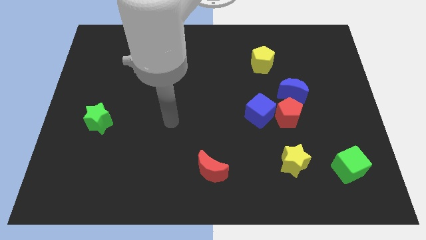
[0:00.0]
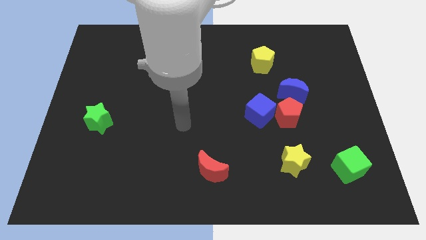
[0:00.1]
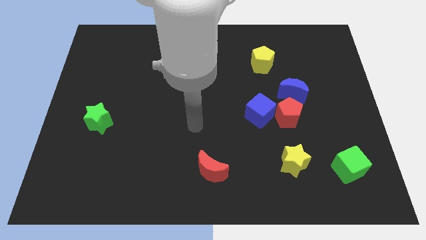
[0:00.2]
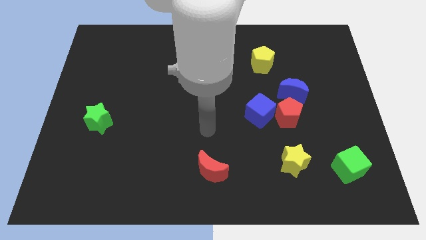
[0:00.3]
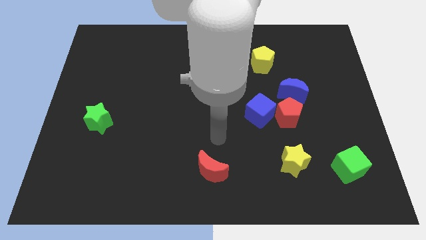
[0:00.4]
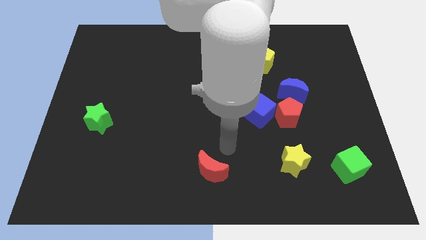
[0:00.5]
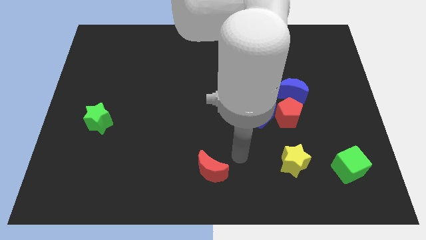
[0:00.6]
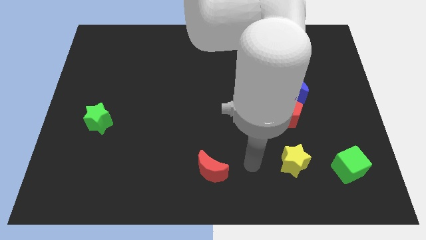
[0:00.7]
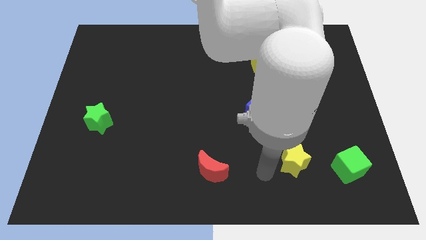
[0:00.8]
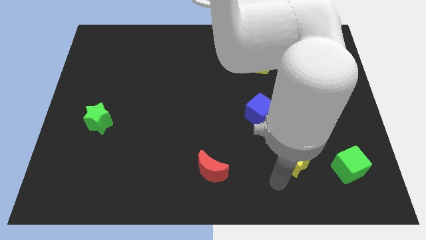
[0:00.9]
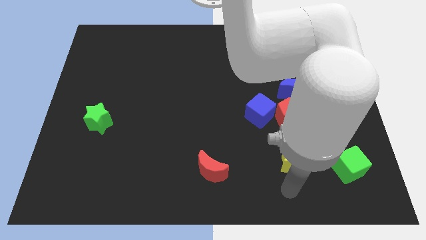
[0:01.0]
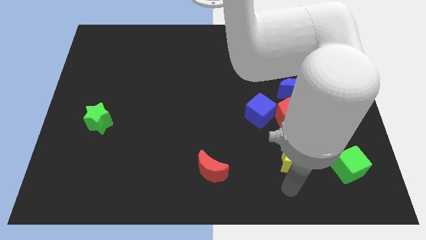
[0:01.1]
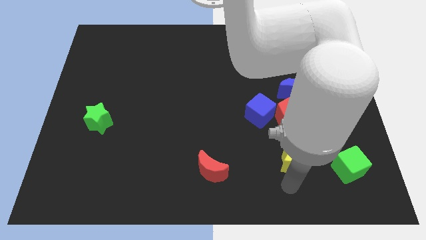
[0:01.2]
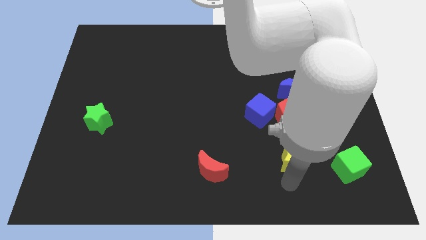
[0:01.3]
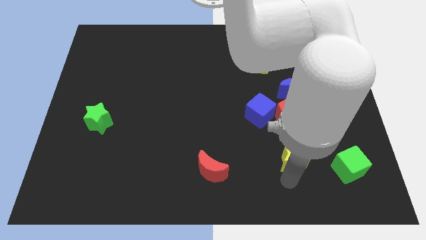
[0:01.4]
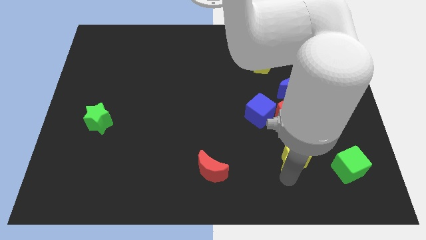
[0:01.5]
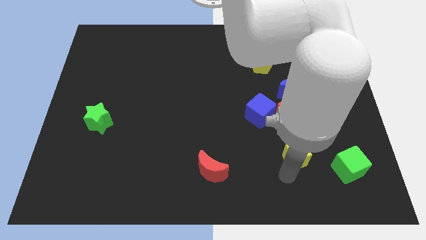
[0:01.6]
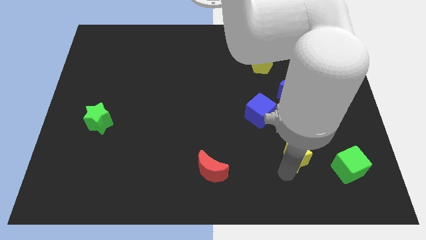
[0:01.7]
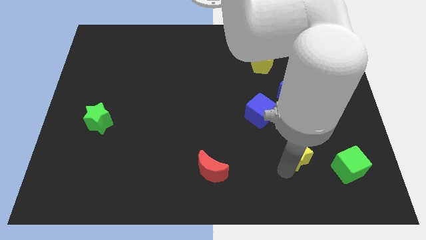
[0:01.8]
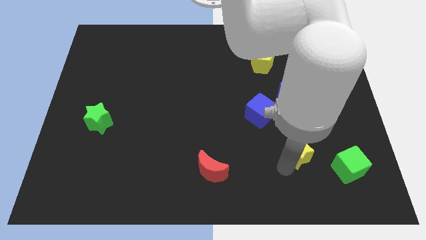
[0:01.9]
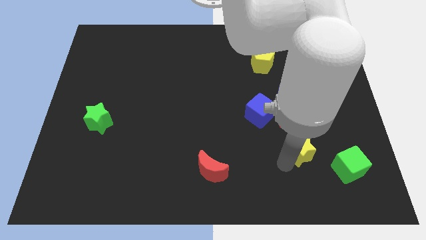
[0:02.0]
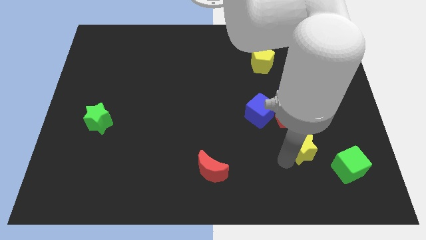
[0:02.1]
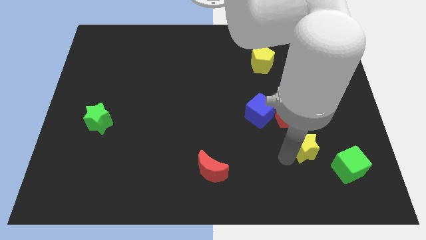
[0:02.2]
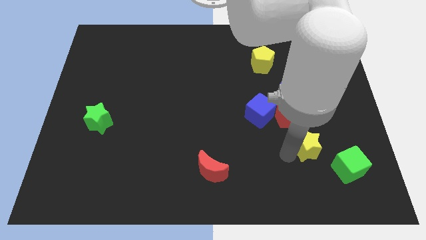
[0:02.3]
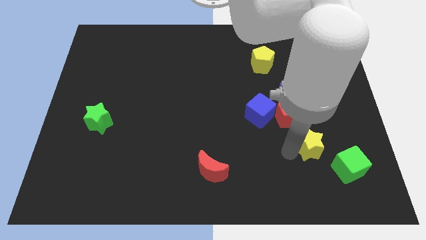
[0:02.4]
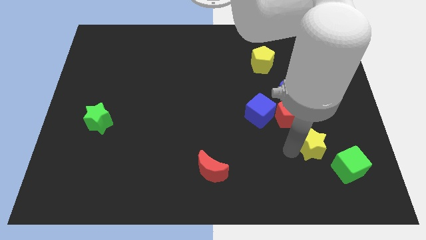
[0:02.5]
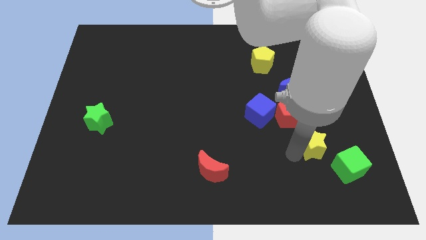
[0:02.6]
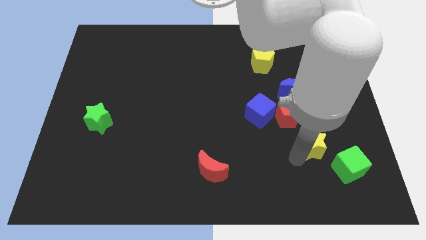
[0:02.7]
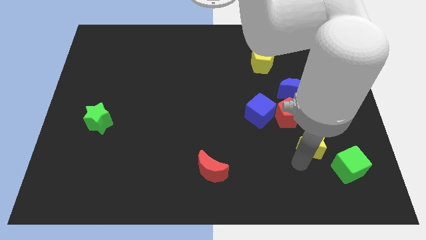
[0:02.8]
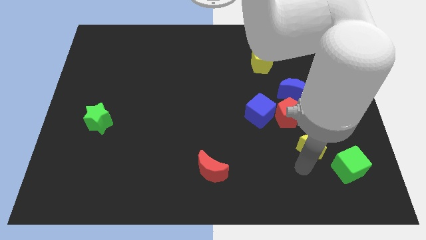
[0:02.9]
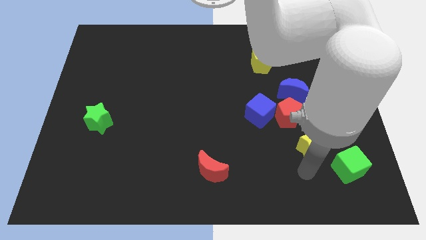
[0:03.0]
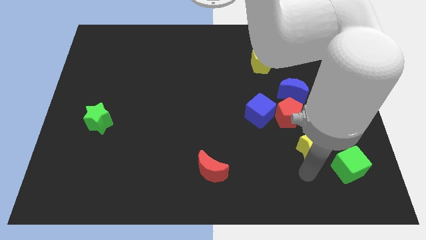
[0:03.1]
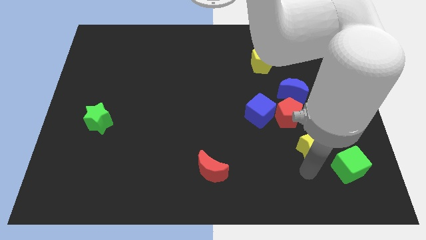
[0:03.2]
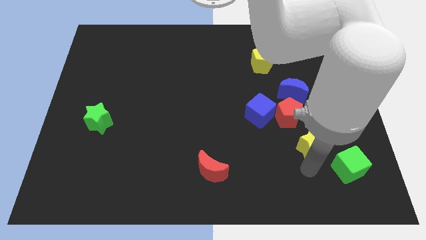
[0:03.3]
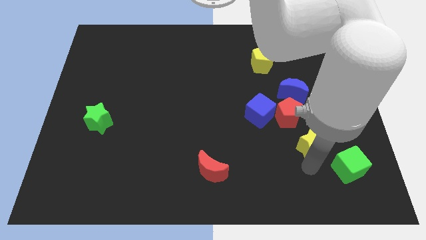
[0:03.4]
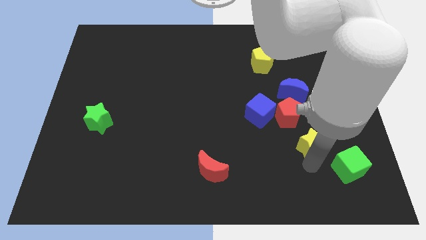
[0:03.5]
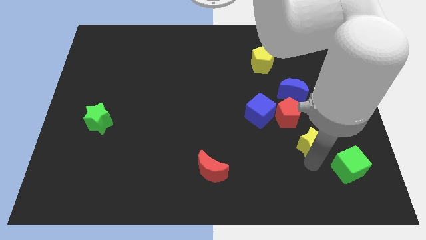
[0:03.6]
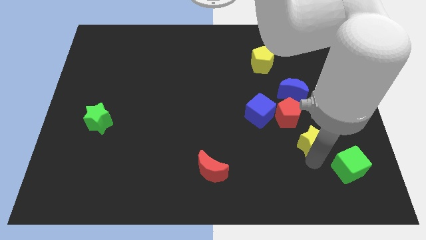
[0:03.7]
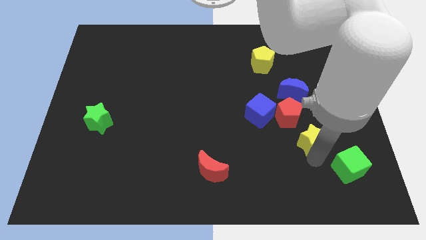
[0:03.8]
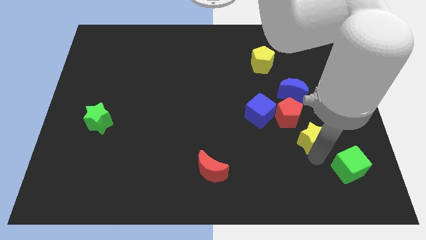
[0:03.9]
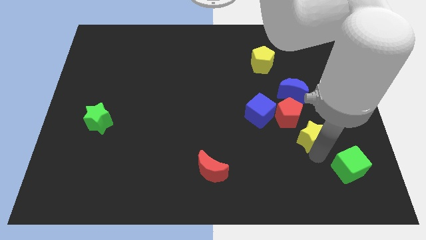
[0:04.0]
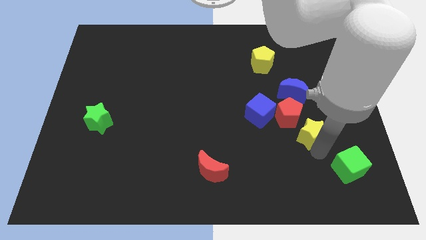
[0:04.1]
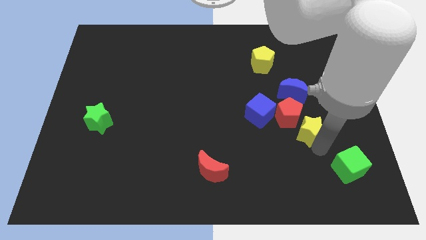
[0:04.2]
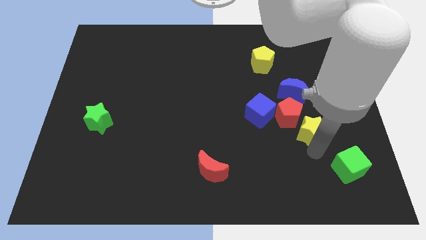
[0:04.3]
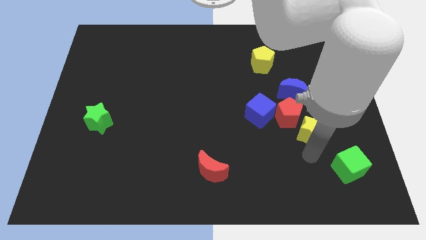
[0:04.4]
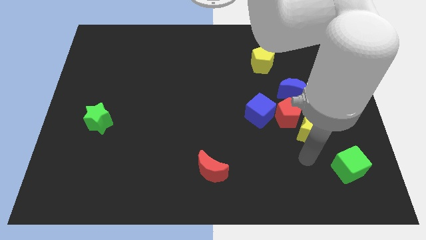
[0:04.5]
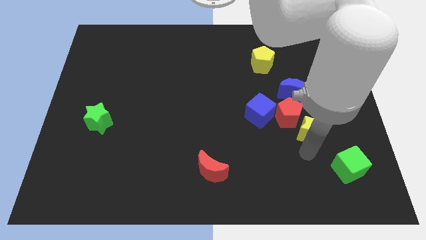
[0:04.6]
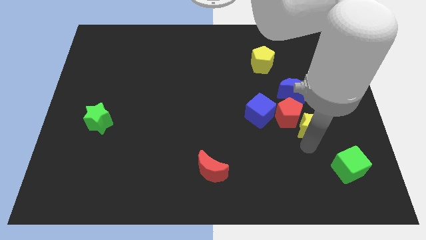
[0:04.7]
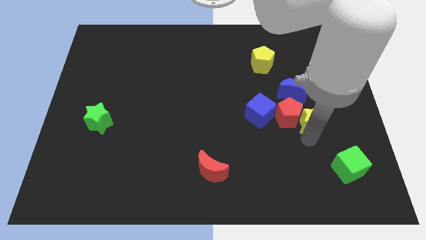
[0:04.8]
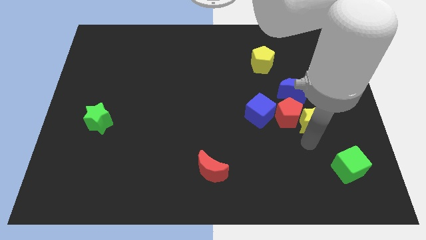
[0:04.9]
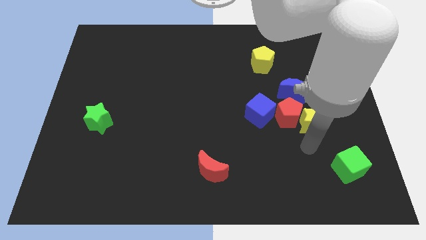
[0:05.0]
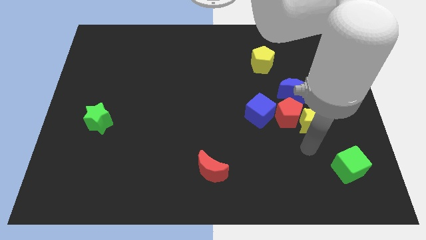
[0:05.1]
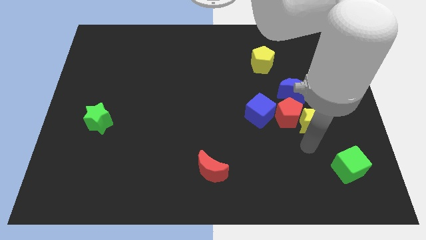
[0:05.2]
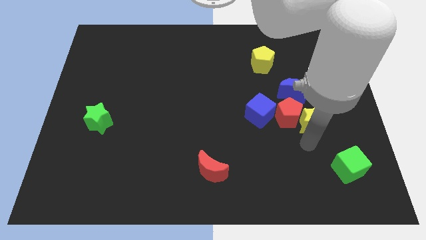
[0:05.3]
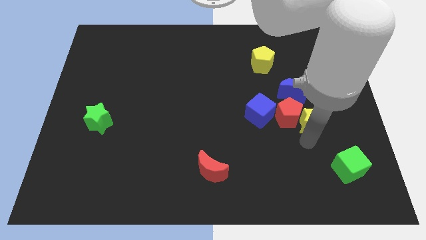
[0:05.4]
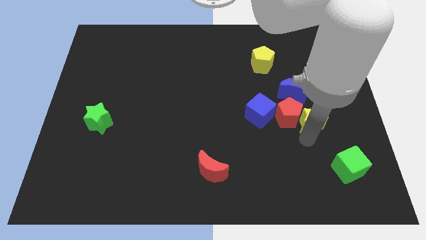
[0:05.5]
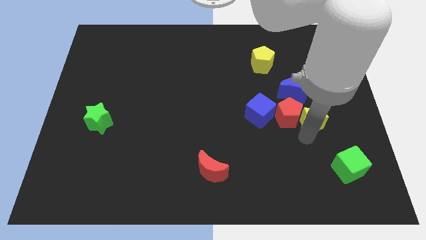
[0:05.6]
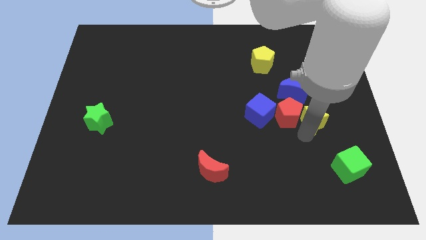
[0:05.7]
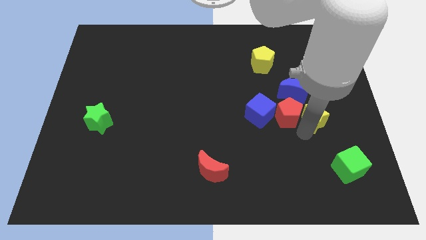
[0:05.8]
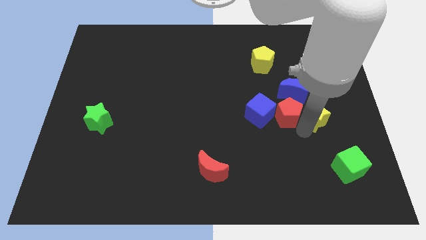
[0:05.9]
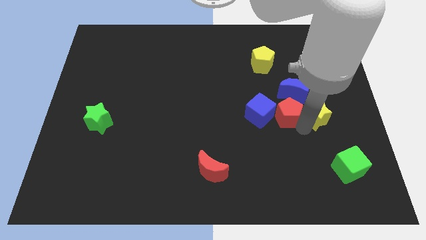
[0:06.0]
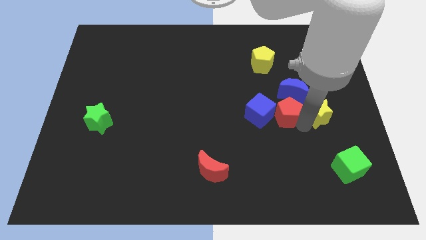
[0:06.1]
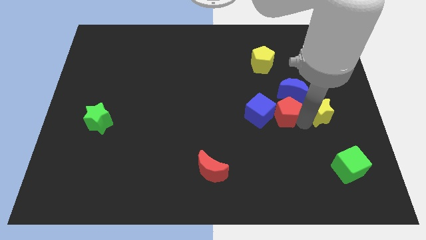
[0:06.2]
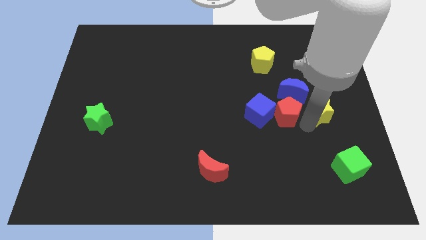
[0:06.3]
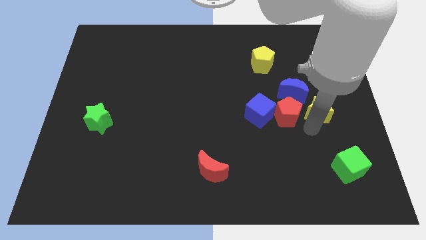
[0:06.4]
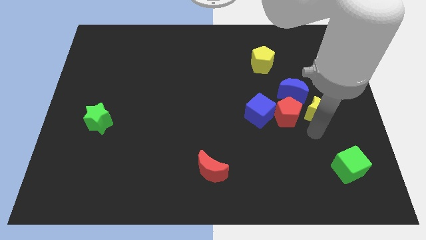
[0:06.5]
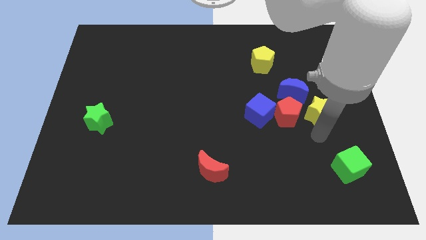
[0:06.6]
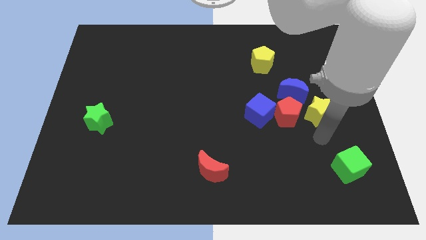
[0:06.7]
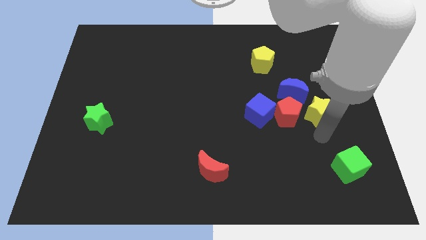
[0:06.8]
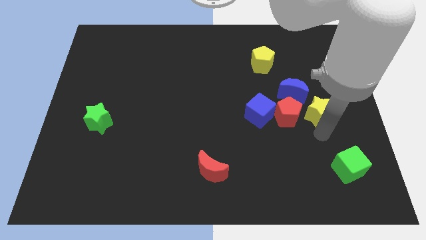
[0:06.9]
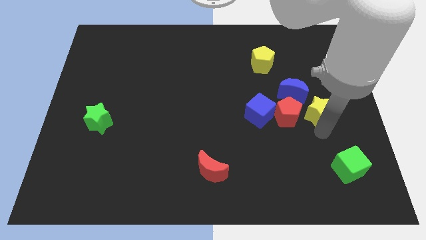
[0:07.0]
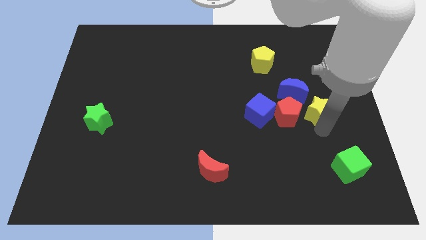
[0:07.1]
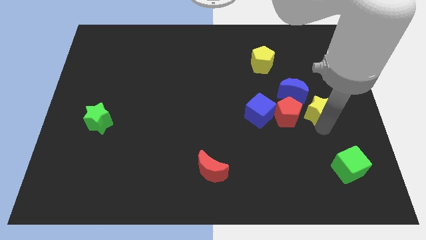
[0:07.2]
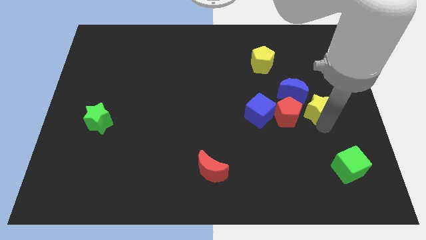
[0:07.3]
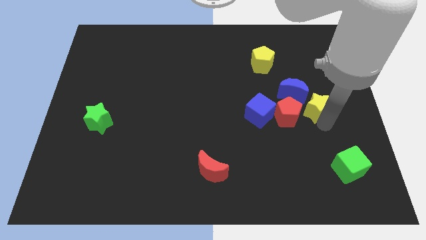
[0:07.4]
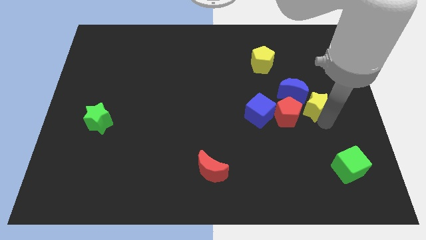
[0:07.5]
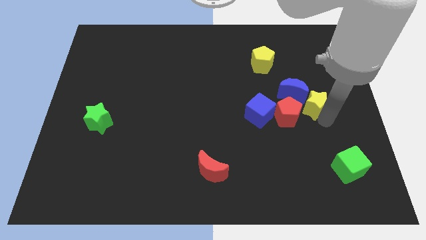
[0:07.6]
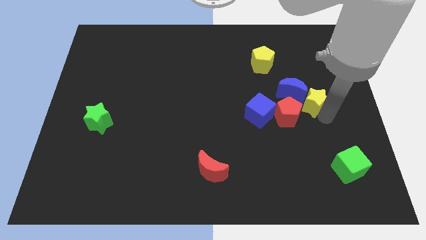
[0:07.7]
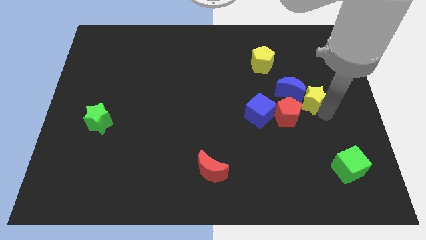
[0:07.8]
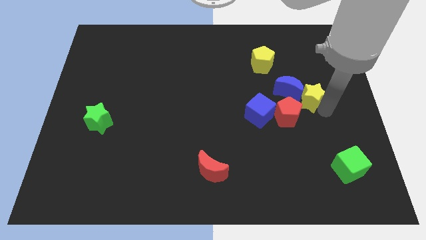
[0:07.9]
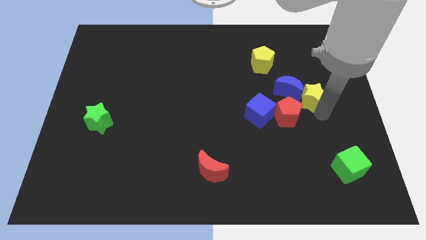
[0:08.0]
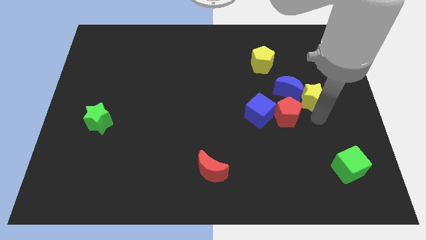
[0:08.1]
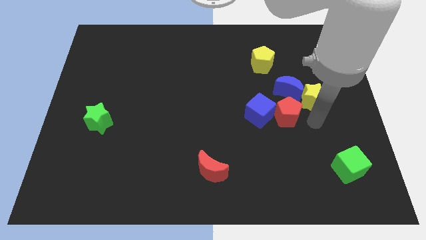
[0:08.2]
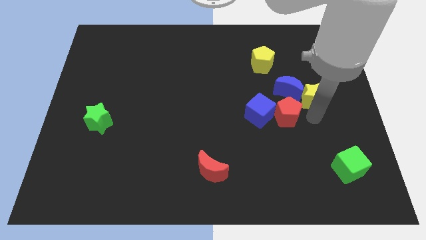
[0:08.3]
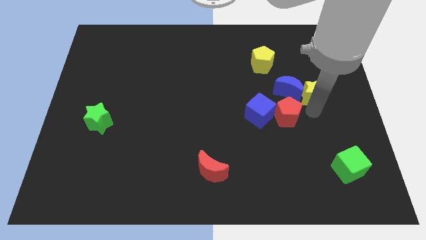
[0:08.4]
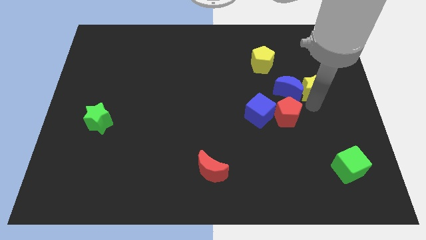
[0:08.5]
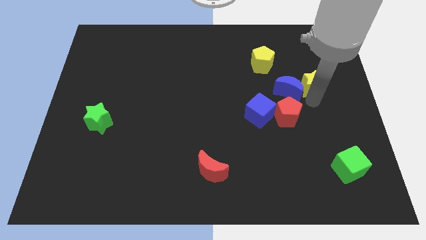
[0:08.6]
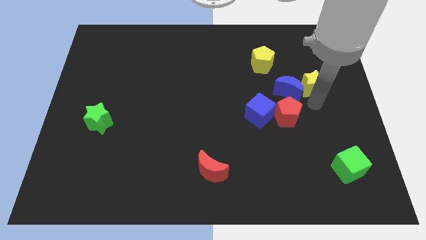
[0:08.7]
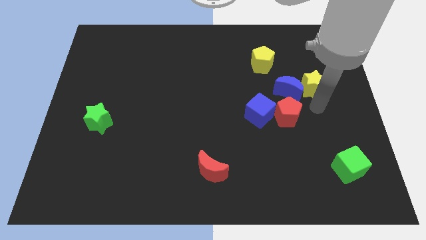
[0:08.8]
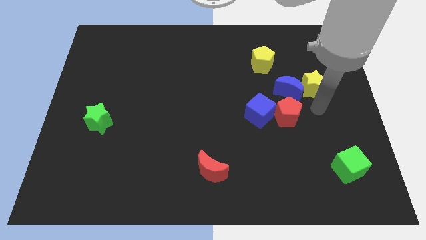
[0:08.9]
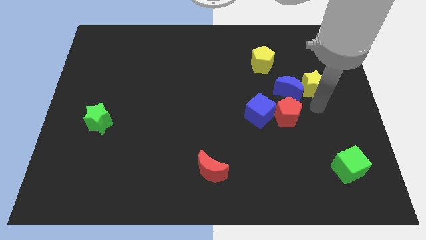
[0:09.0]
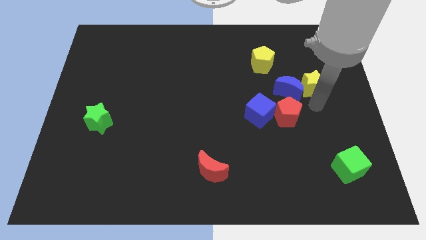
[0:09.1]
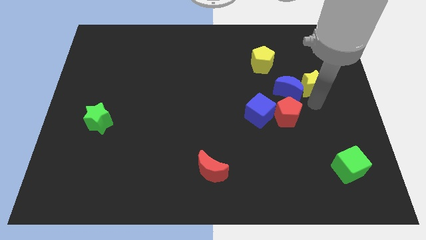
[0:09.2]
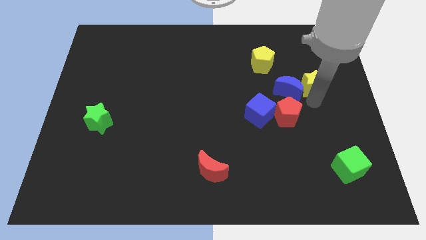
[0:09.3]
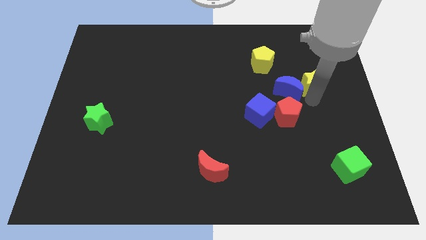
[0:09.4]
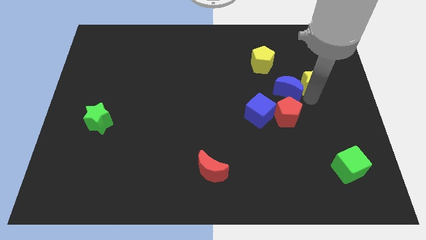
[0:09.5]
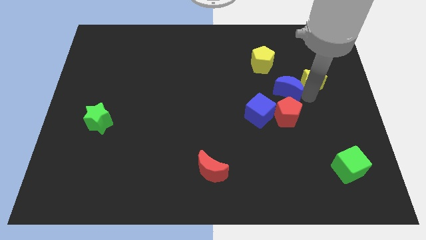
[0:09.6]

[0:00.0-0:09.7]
slide the yellow star upwards
